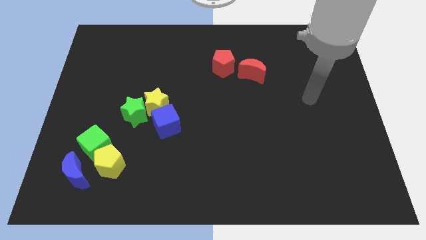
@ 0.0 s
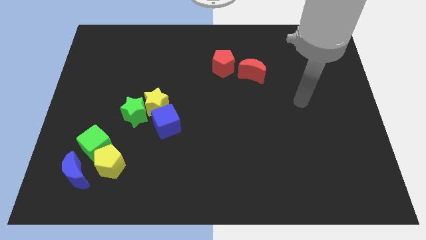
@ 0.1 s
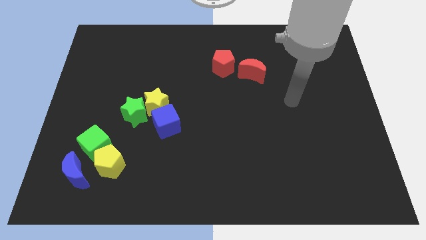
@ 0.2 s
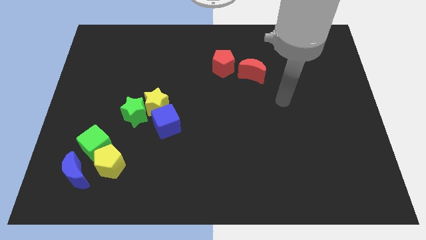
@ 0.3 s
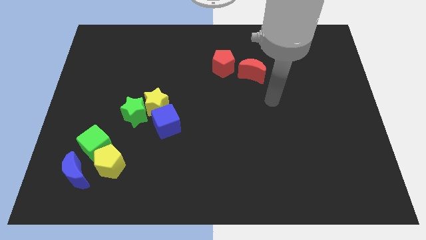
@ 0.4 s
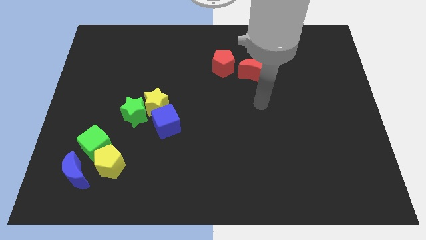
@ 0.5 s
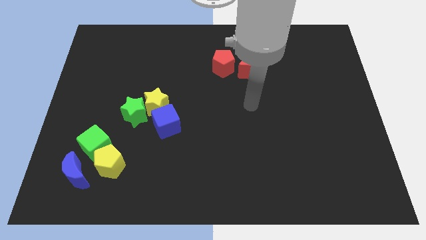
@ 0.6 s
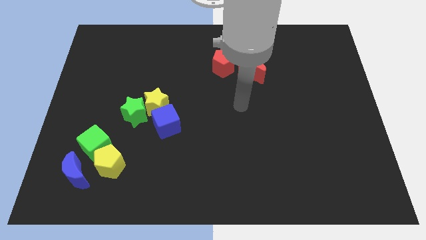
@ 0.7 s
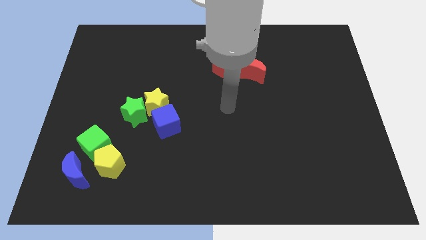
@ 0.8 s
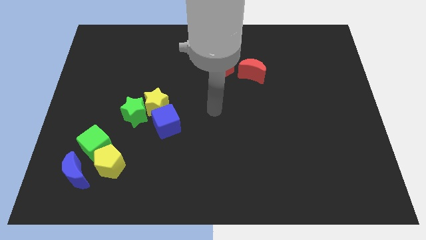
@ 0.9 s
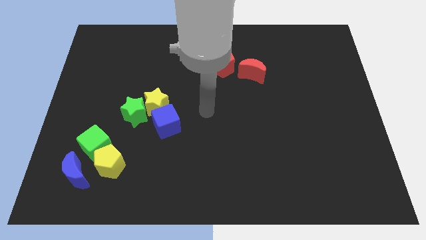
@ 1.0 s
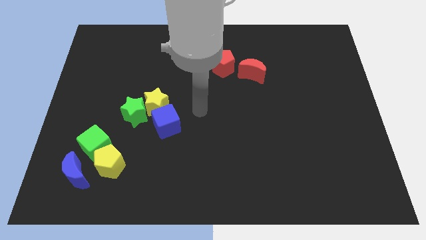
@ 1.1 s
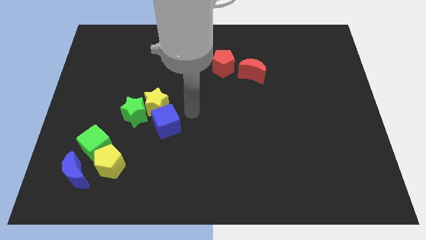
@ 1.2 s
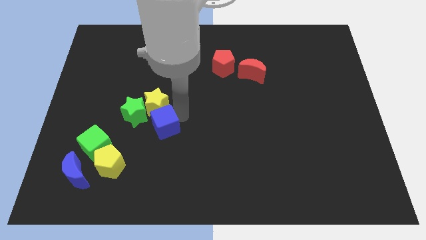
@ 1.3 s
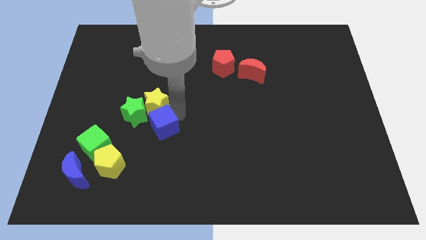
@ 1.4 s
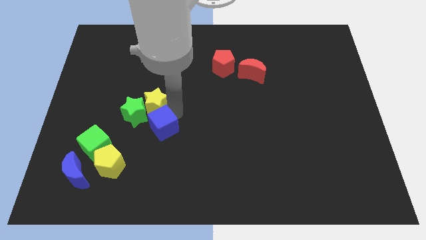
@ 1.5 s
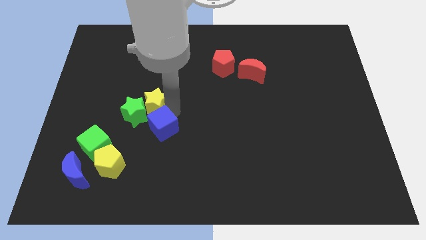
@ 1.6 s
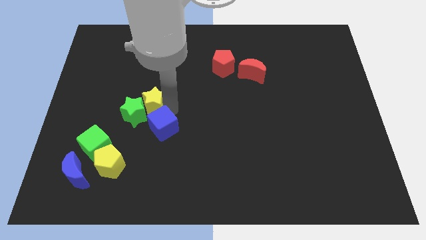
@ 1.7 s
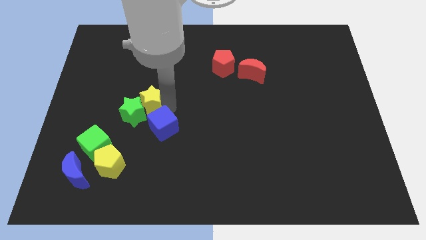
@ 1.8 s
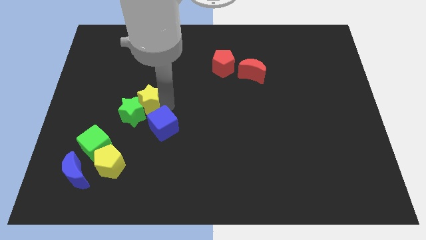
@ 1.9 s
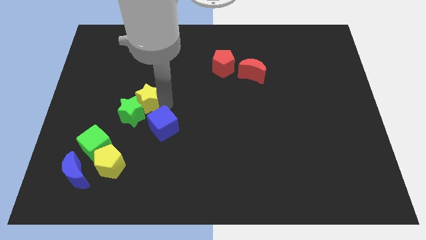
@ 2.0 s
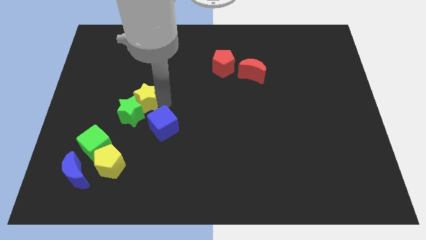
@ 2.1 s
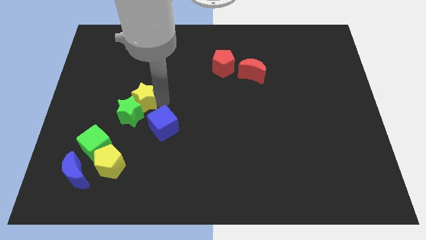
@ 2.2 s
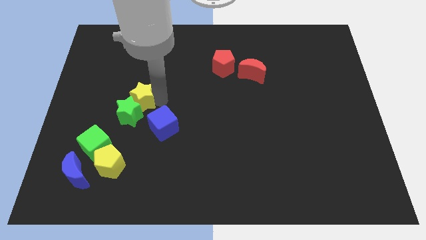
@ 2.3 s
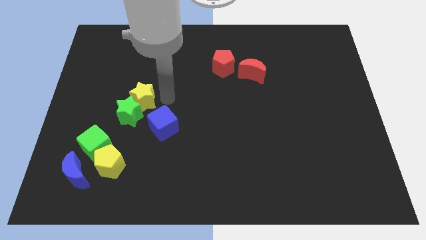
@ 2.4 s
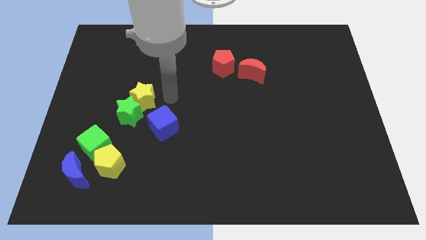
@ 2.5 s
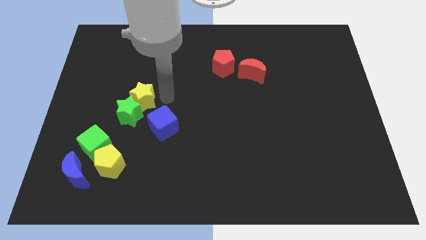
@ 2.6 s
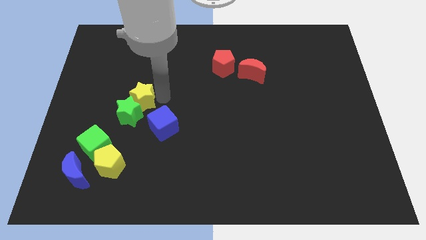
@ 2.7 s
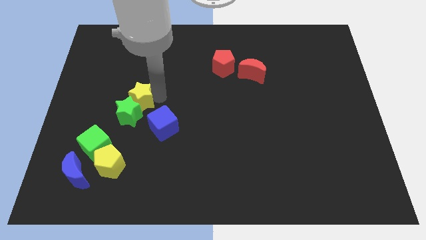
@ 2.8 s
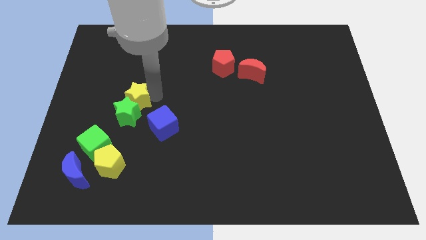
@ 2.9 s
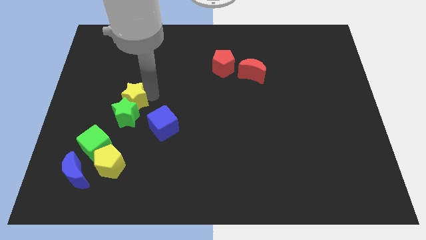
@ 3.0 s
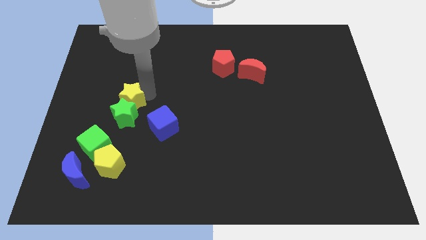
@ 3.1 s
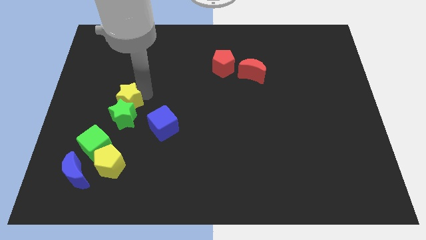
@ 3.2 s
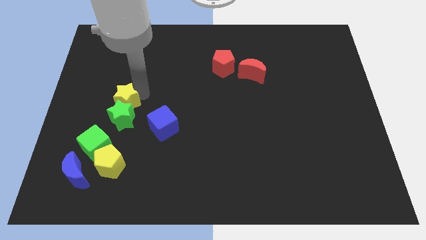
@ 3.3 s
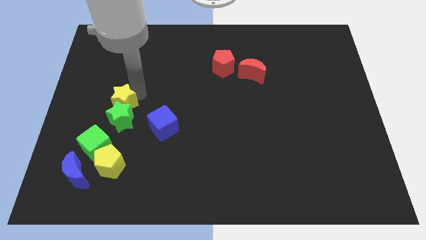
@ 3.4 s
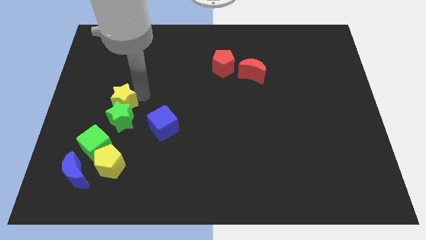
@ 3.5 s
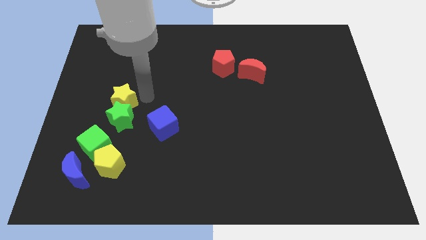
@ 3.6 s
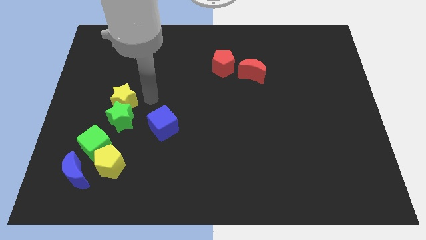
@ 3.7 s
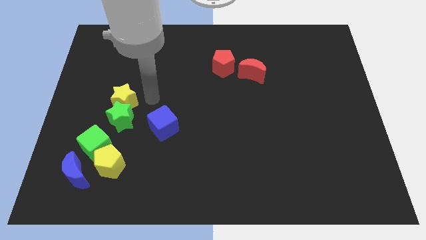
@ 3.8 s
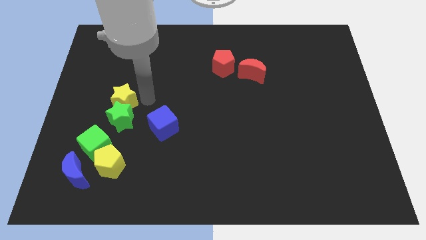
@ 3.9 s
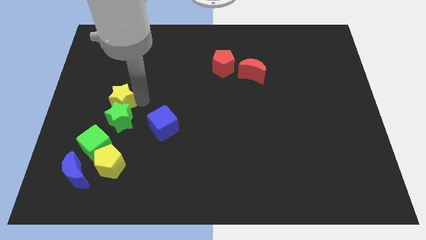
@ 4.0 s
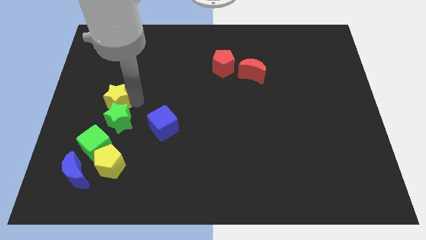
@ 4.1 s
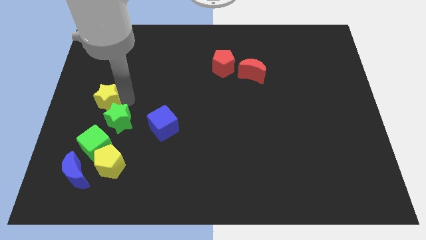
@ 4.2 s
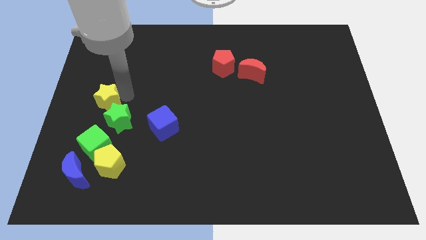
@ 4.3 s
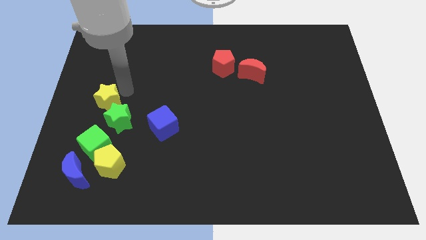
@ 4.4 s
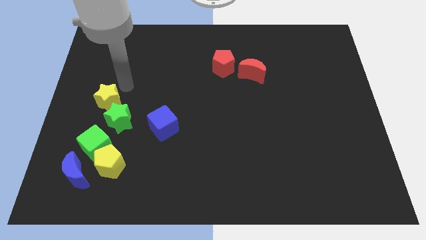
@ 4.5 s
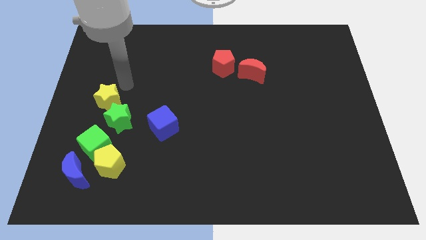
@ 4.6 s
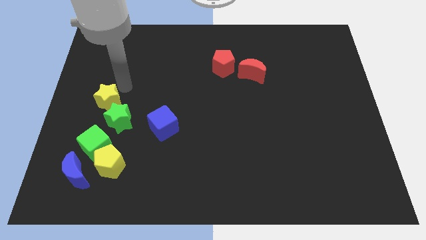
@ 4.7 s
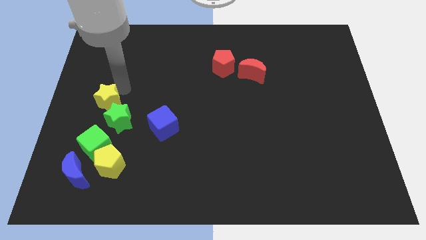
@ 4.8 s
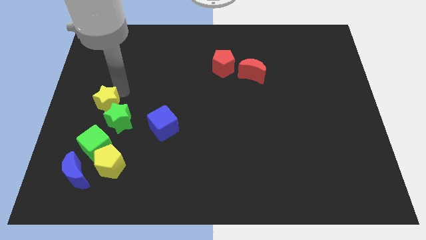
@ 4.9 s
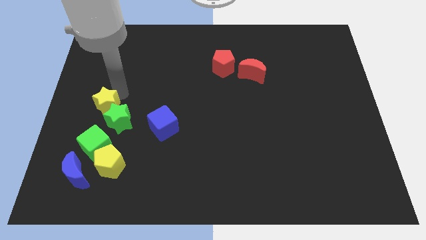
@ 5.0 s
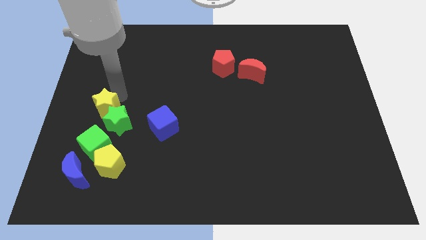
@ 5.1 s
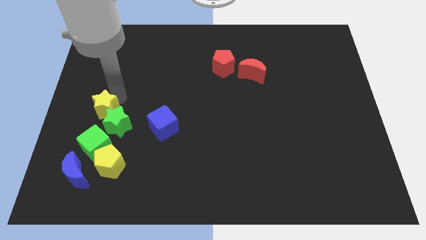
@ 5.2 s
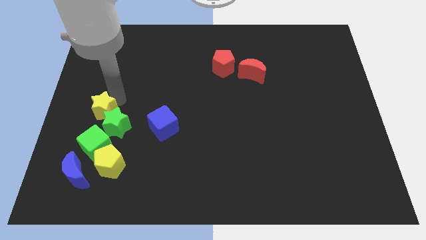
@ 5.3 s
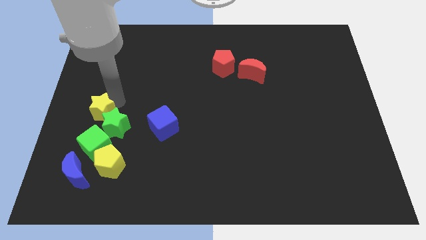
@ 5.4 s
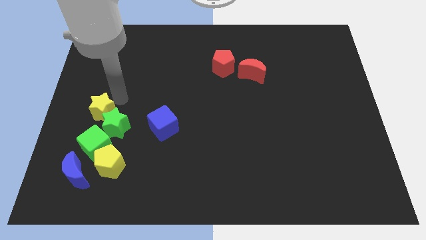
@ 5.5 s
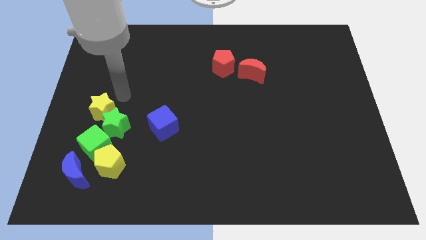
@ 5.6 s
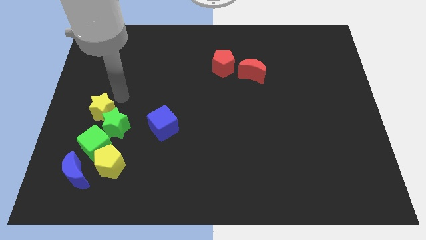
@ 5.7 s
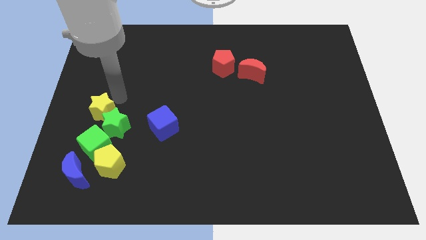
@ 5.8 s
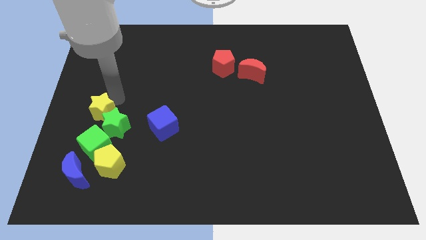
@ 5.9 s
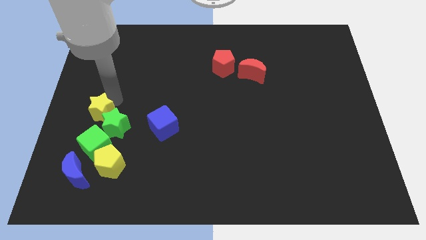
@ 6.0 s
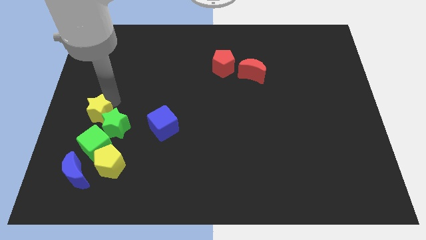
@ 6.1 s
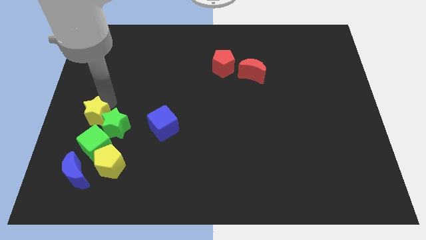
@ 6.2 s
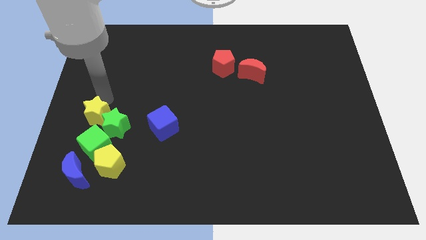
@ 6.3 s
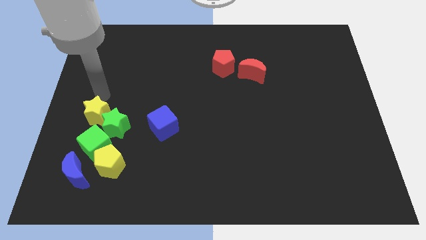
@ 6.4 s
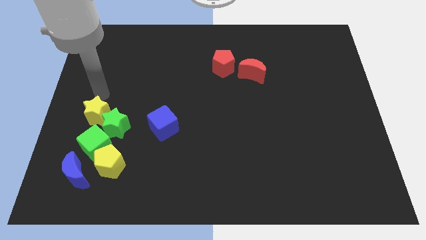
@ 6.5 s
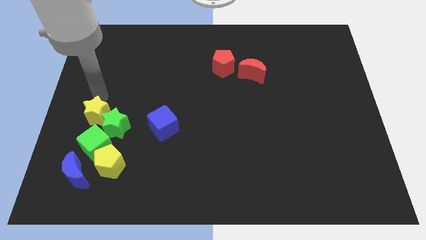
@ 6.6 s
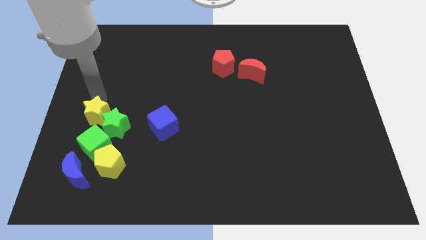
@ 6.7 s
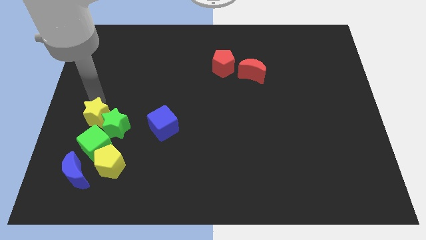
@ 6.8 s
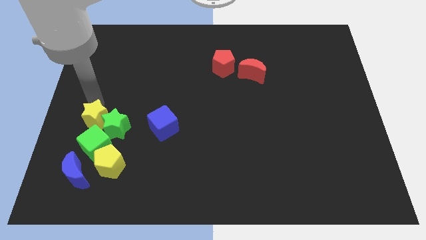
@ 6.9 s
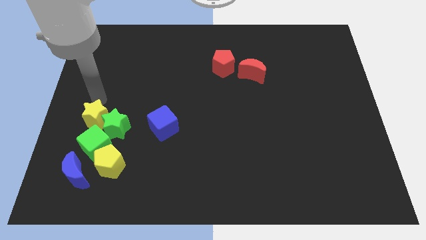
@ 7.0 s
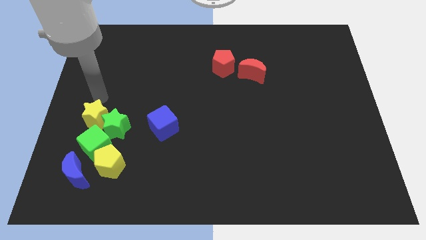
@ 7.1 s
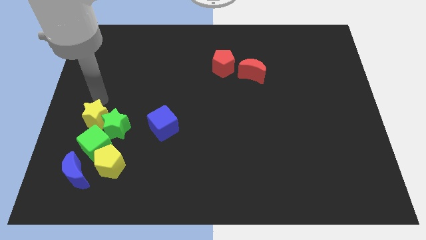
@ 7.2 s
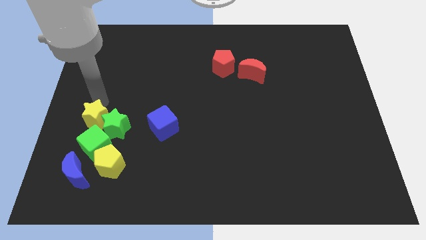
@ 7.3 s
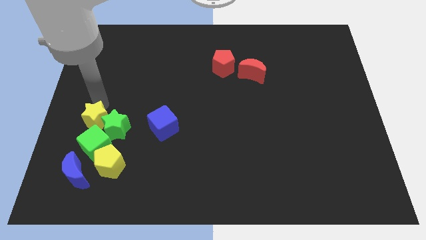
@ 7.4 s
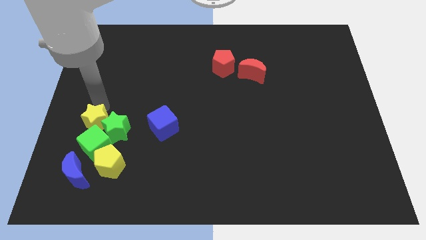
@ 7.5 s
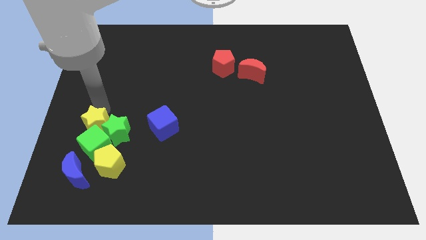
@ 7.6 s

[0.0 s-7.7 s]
push the yellow star to the top left of the yellow pentagon
